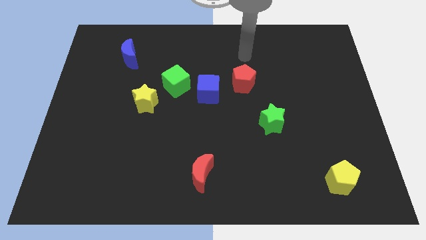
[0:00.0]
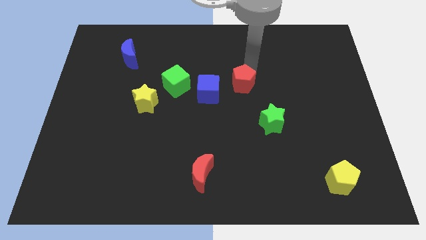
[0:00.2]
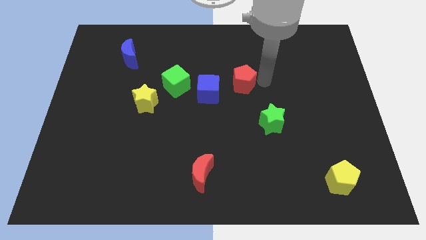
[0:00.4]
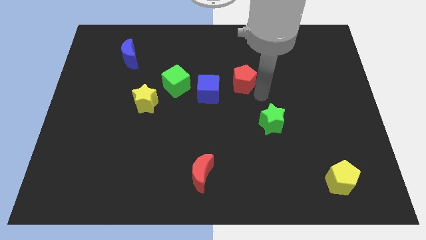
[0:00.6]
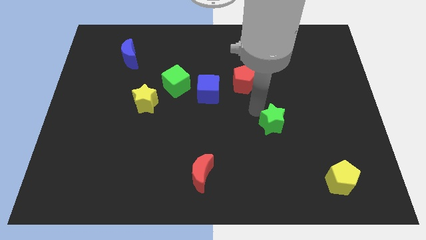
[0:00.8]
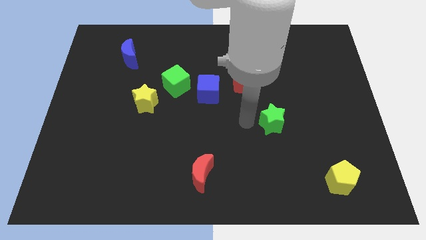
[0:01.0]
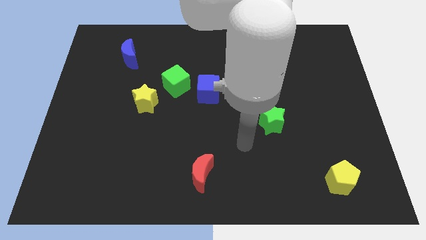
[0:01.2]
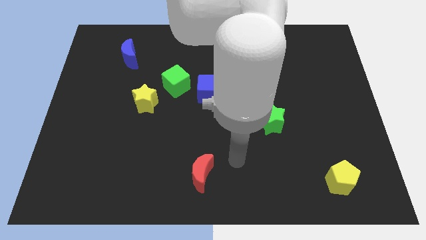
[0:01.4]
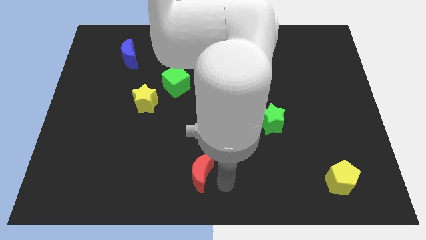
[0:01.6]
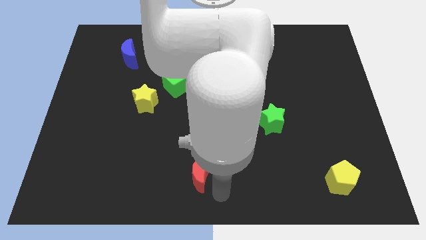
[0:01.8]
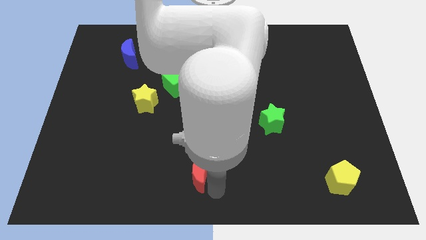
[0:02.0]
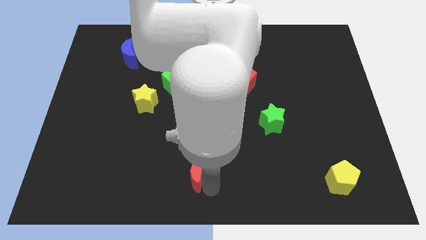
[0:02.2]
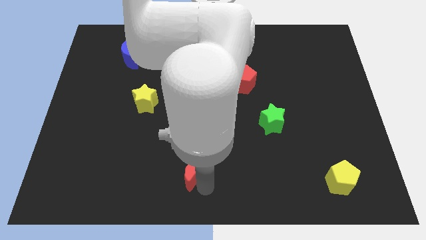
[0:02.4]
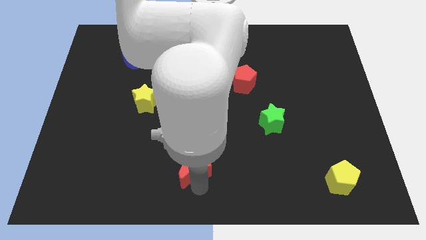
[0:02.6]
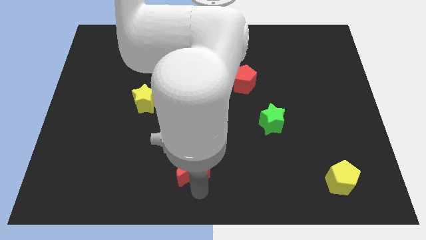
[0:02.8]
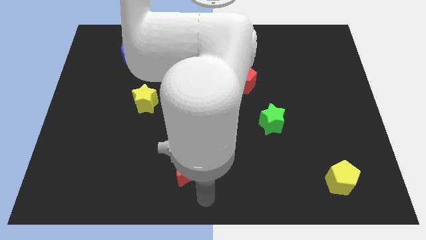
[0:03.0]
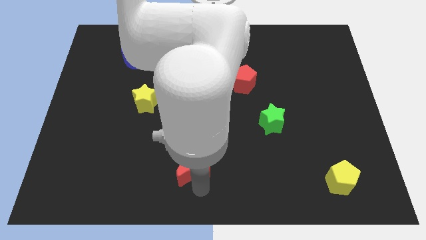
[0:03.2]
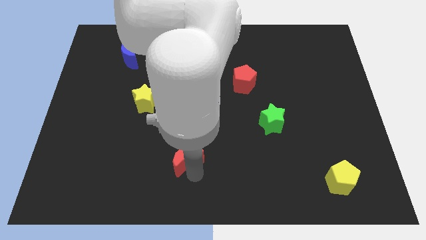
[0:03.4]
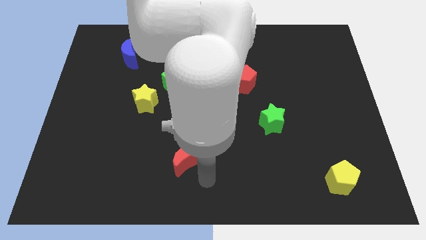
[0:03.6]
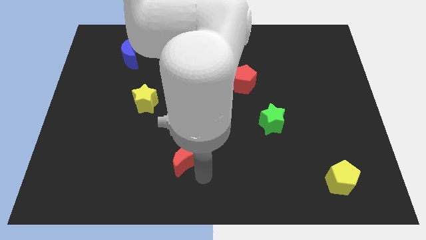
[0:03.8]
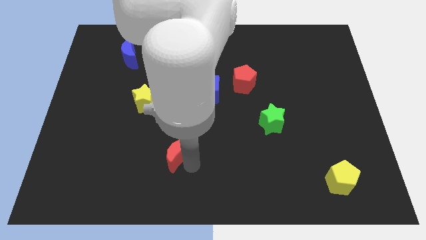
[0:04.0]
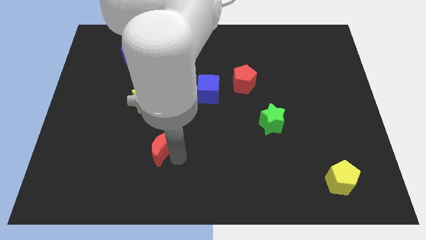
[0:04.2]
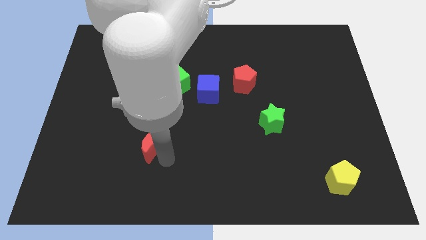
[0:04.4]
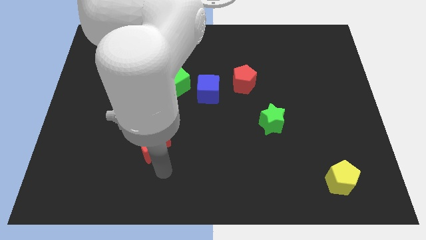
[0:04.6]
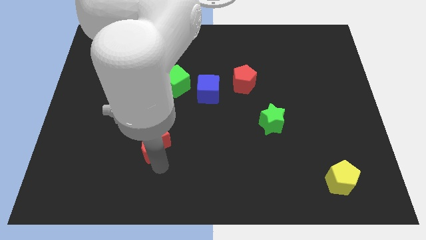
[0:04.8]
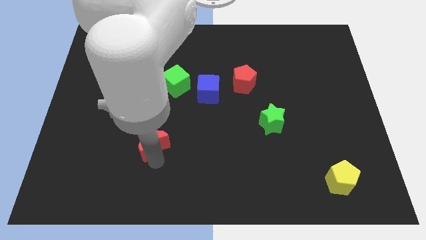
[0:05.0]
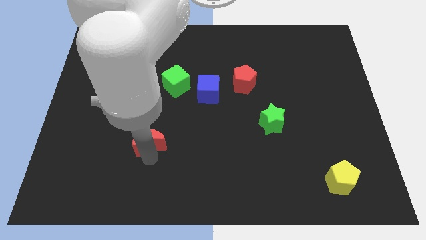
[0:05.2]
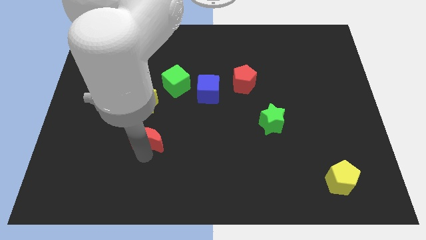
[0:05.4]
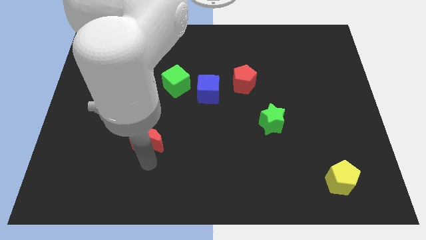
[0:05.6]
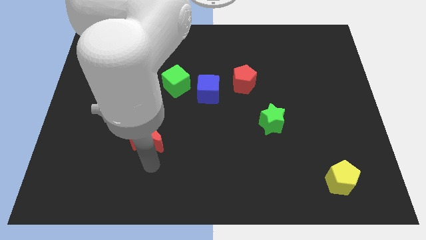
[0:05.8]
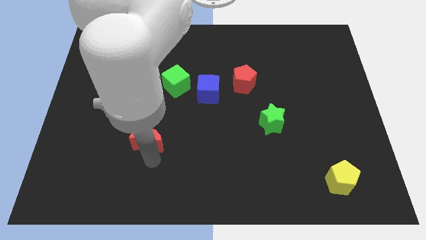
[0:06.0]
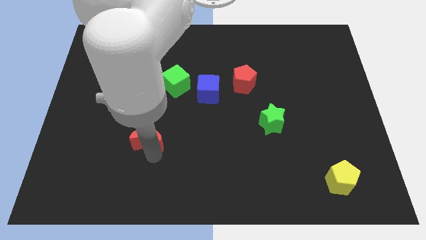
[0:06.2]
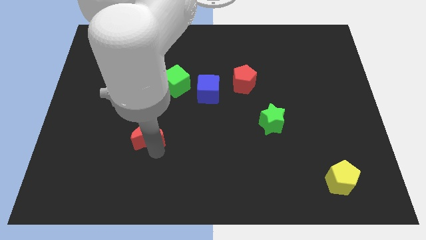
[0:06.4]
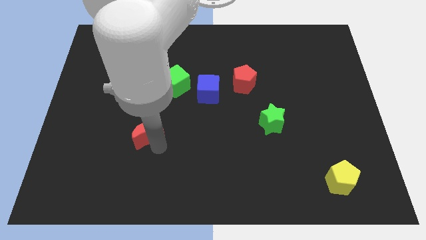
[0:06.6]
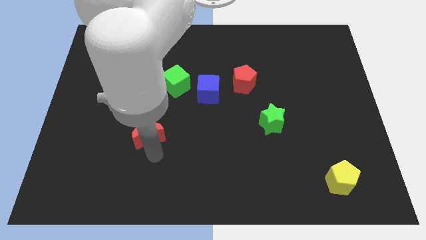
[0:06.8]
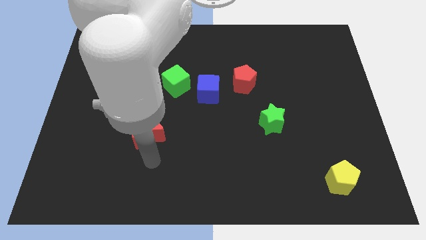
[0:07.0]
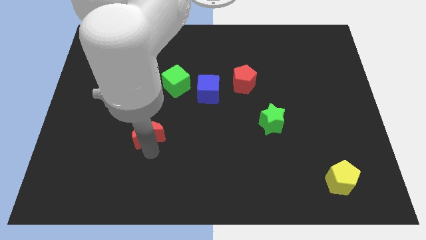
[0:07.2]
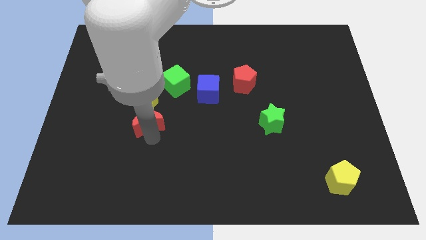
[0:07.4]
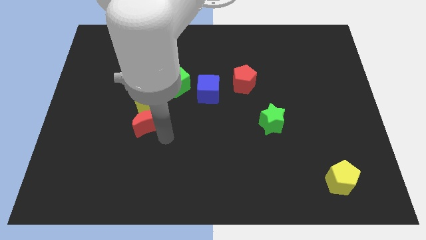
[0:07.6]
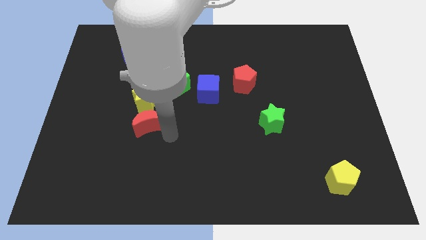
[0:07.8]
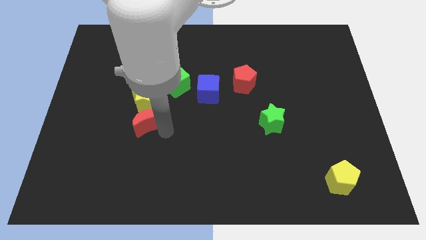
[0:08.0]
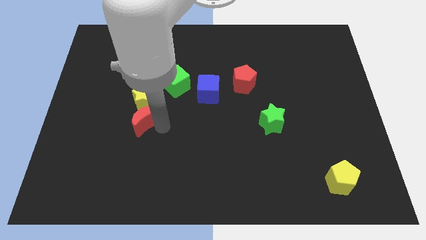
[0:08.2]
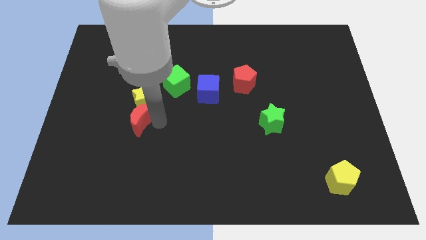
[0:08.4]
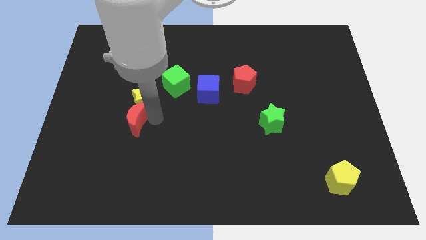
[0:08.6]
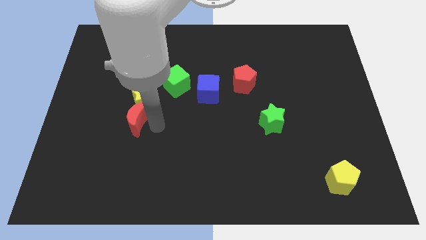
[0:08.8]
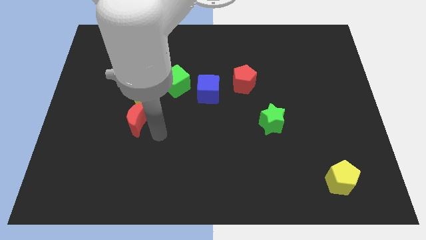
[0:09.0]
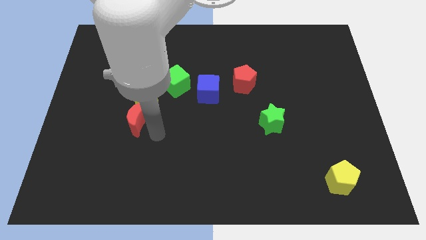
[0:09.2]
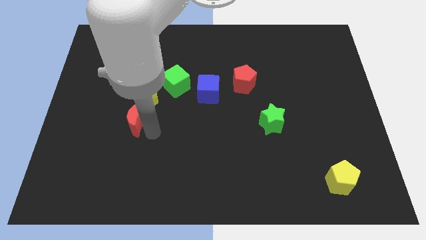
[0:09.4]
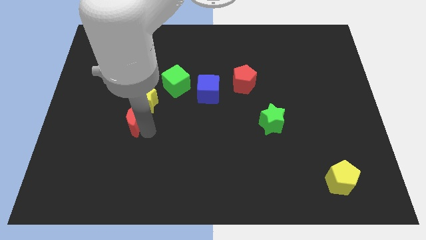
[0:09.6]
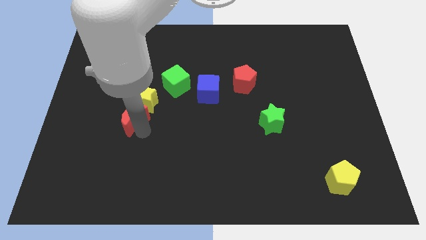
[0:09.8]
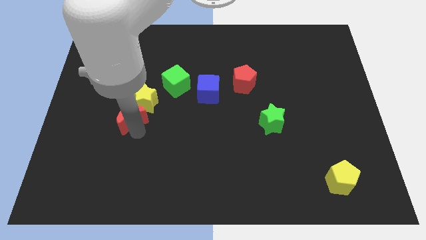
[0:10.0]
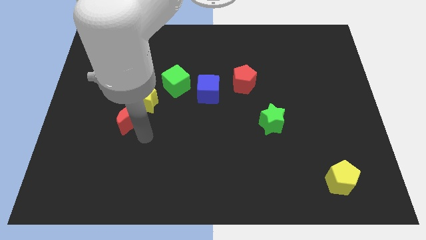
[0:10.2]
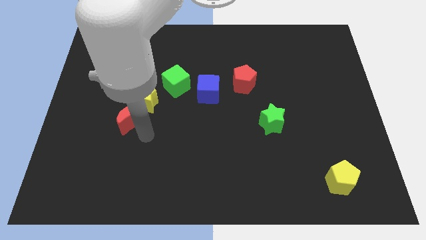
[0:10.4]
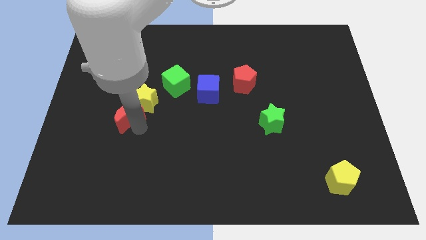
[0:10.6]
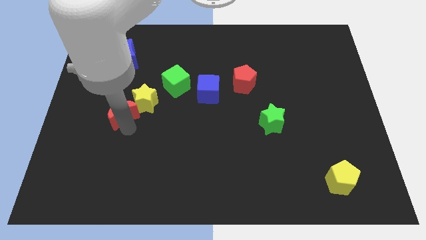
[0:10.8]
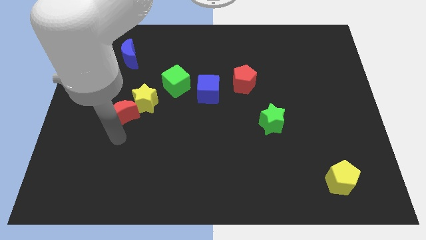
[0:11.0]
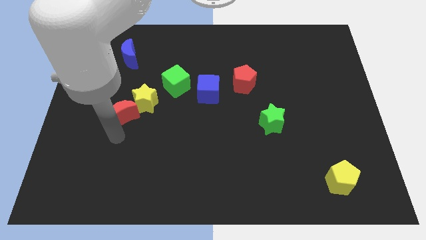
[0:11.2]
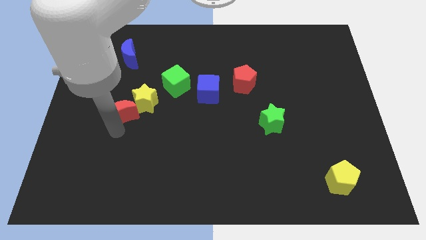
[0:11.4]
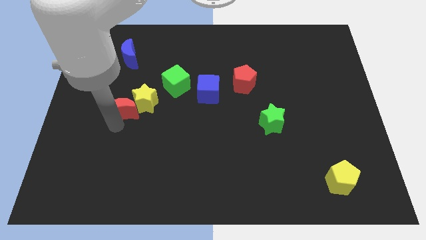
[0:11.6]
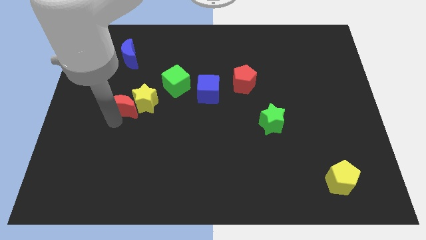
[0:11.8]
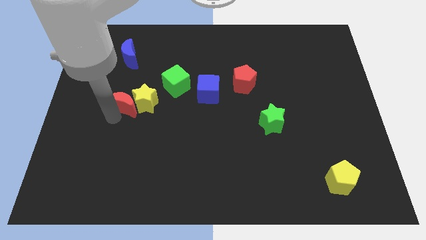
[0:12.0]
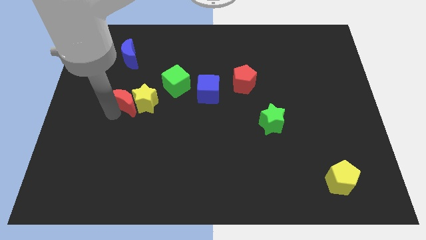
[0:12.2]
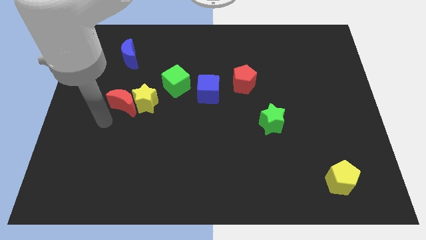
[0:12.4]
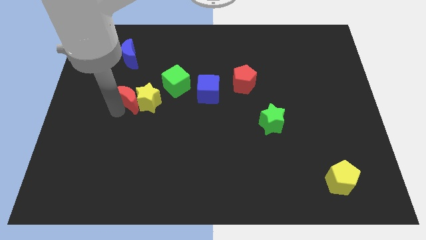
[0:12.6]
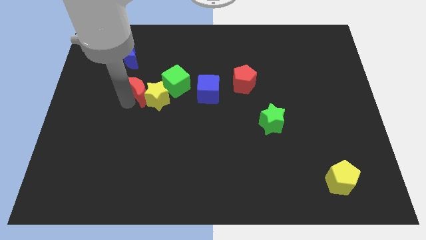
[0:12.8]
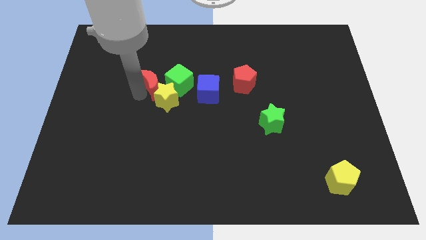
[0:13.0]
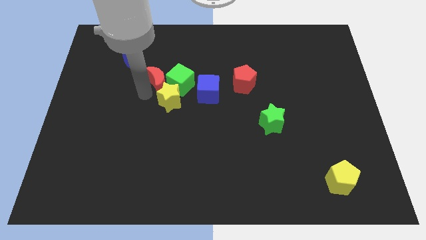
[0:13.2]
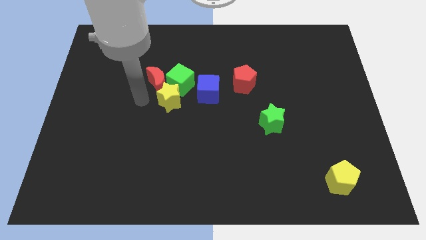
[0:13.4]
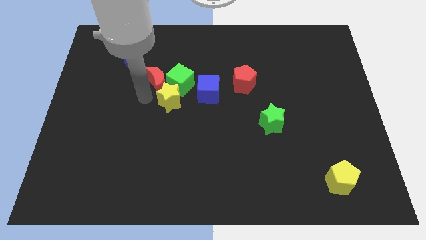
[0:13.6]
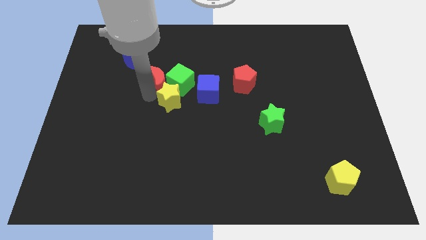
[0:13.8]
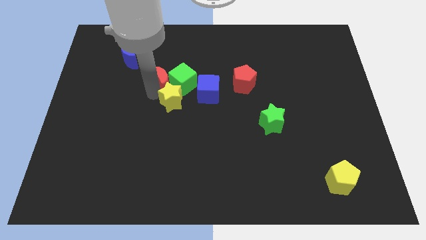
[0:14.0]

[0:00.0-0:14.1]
slide the red moon upwards

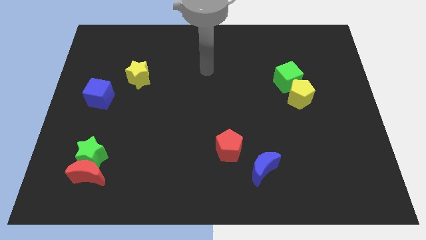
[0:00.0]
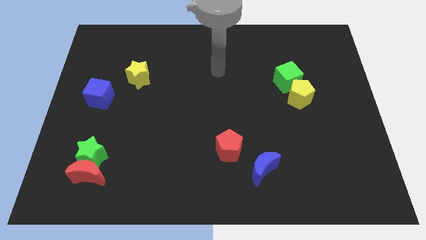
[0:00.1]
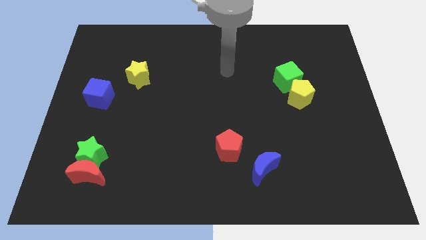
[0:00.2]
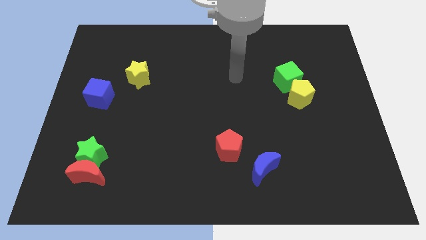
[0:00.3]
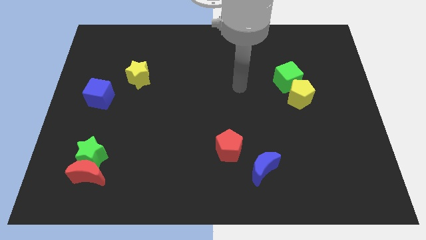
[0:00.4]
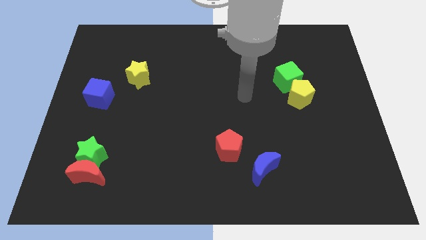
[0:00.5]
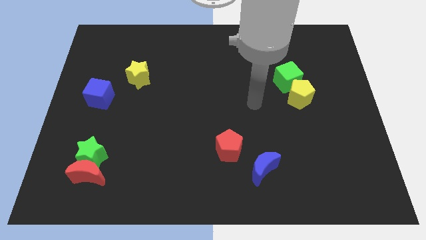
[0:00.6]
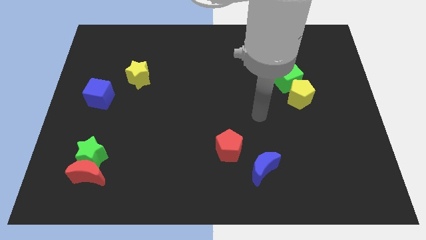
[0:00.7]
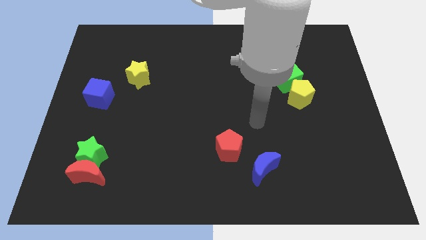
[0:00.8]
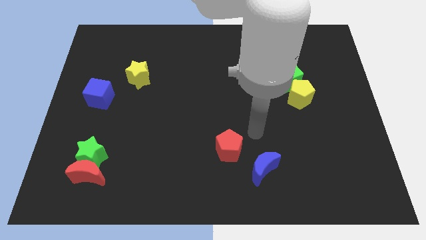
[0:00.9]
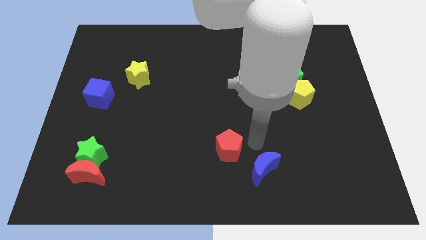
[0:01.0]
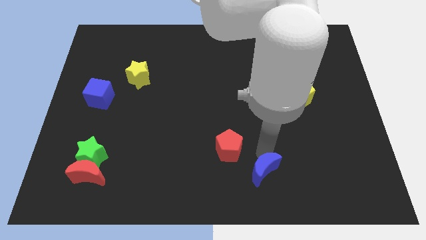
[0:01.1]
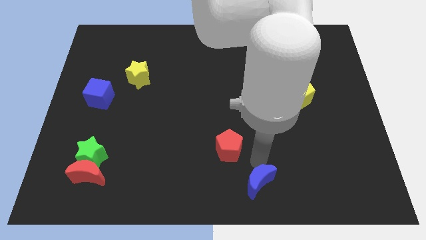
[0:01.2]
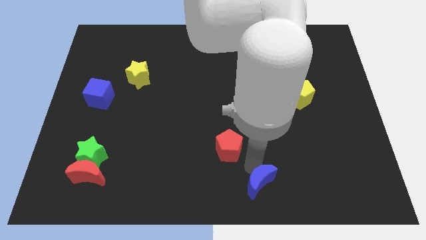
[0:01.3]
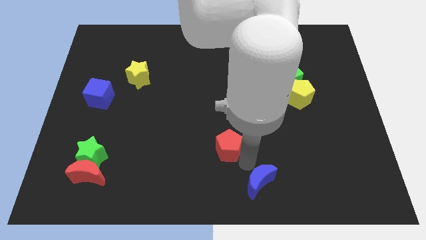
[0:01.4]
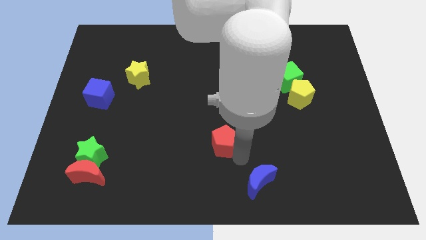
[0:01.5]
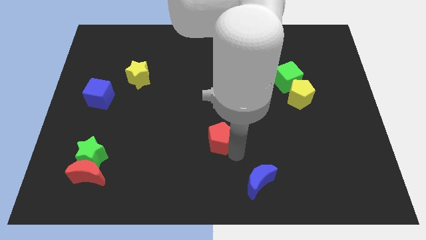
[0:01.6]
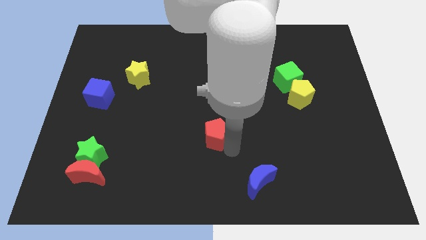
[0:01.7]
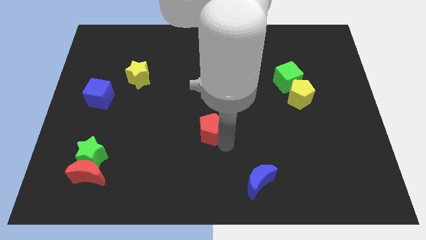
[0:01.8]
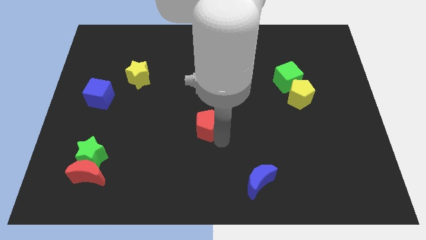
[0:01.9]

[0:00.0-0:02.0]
slide the red pentagon up and to the left diagonally slightly
